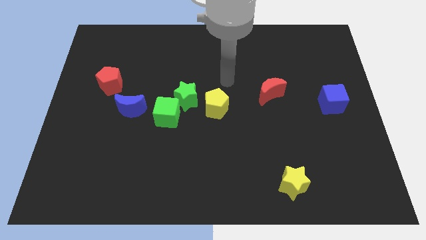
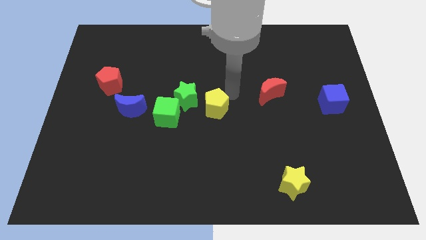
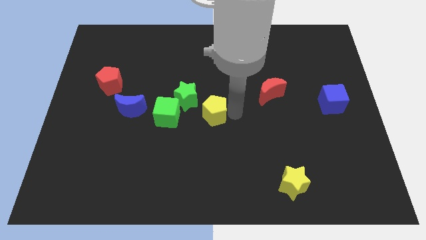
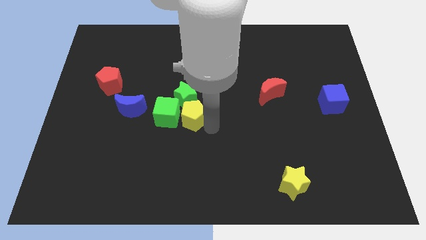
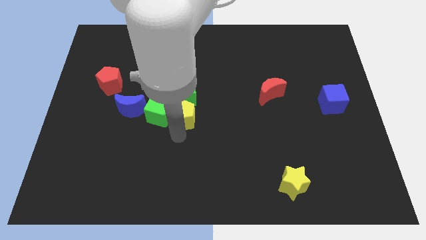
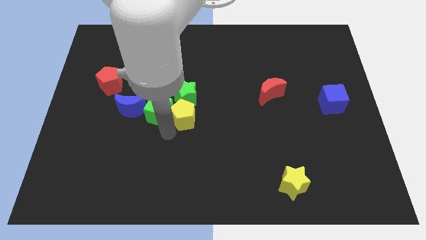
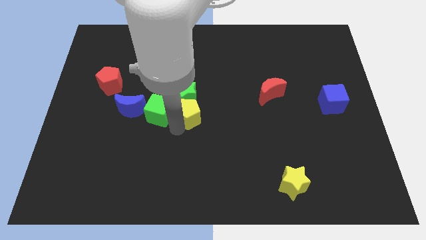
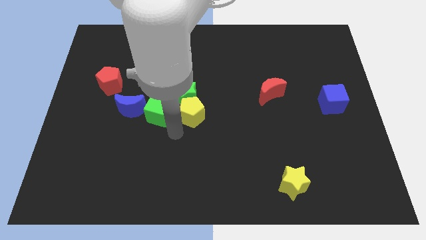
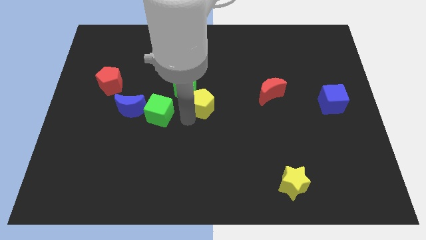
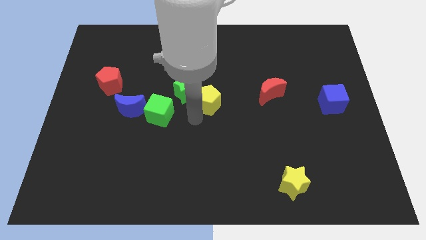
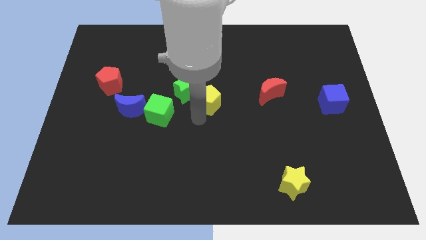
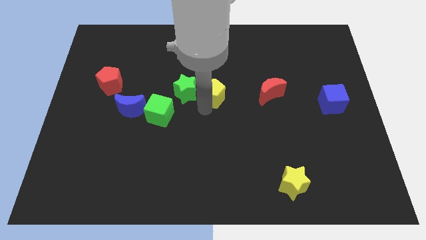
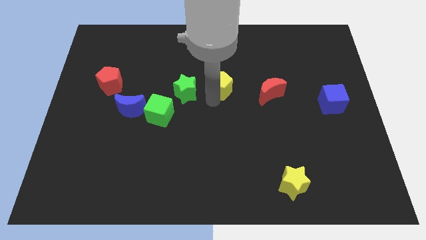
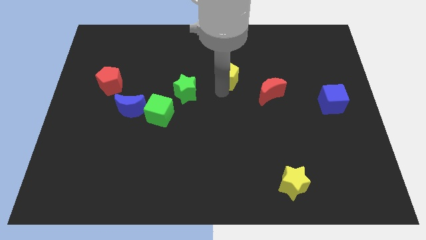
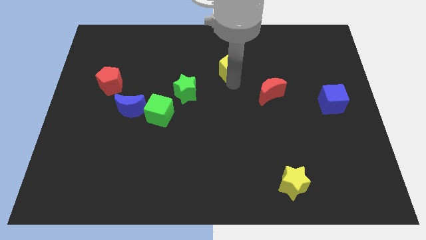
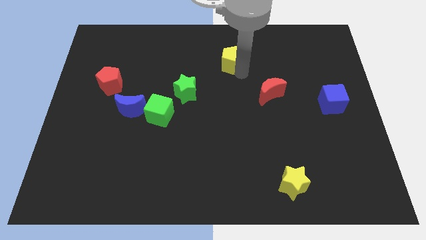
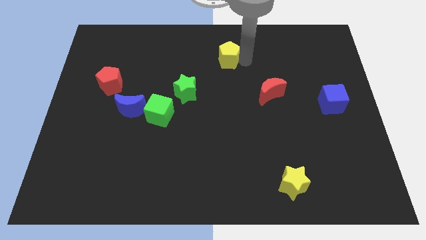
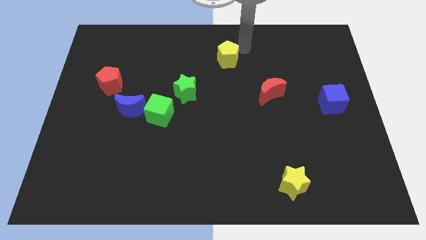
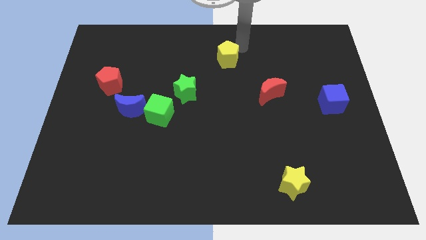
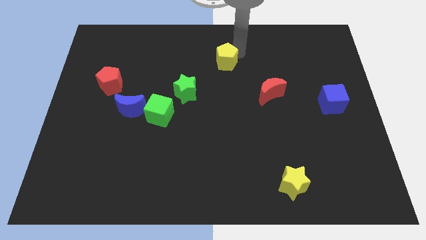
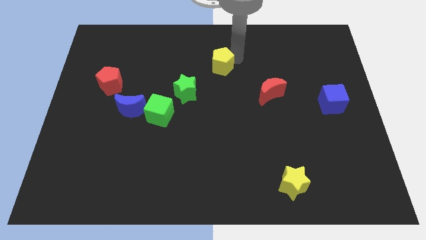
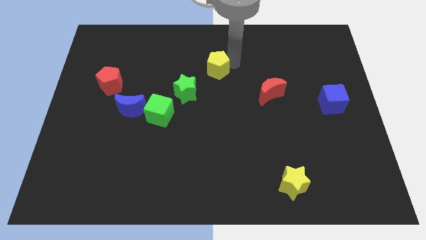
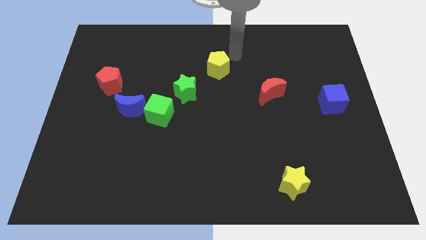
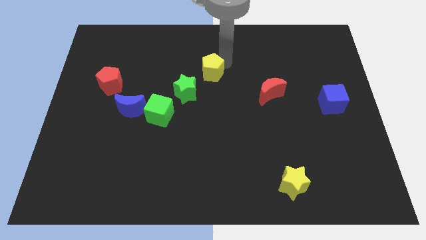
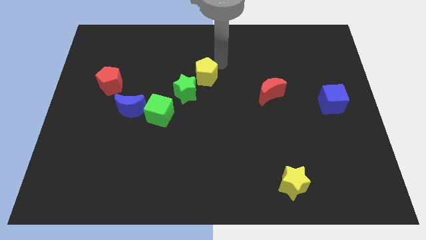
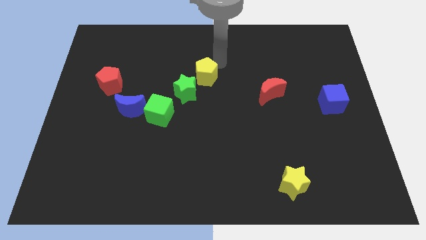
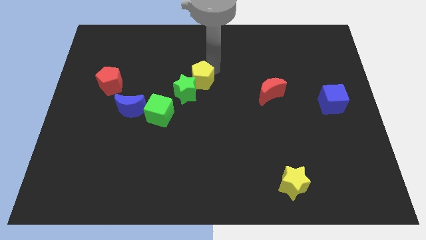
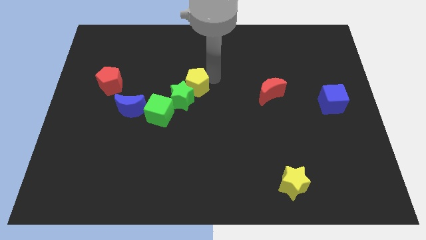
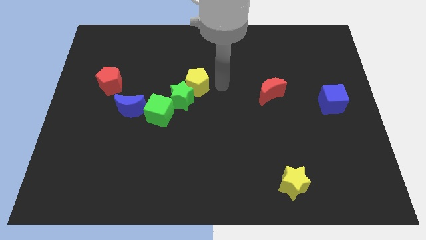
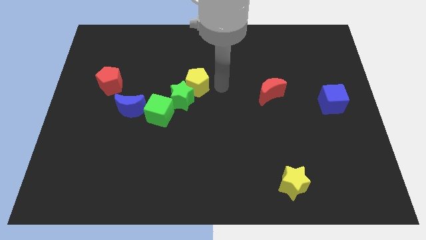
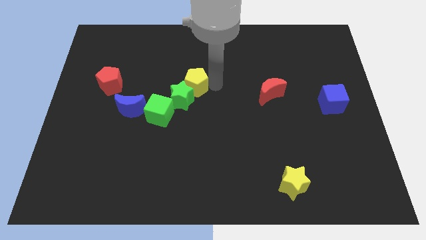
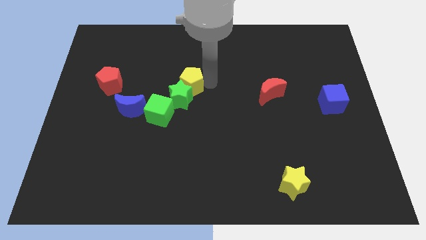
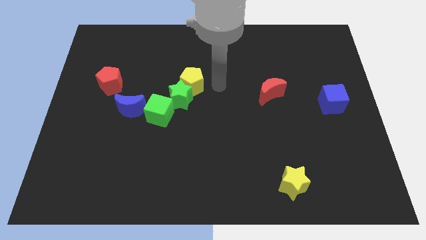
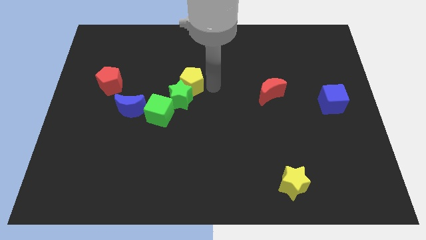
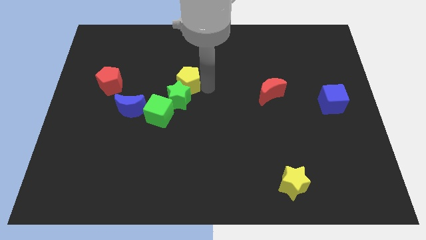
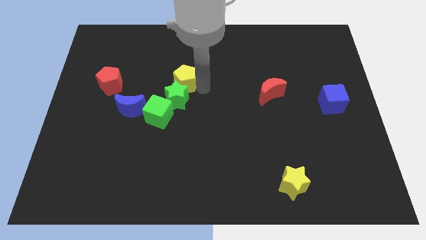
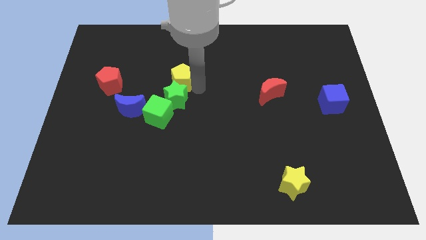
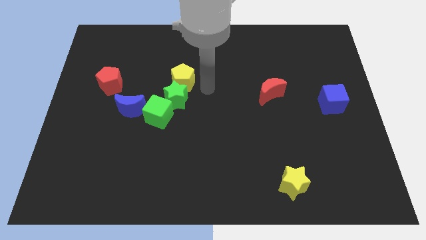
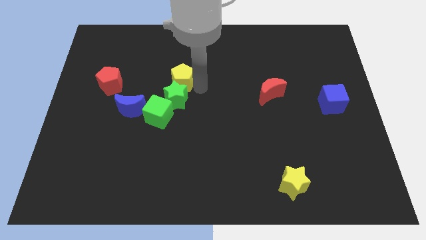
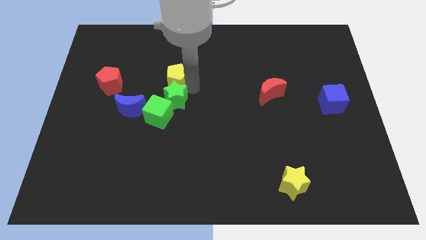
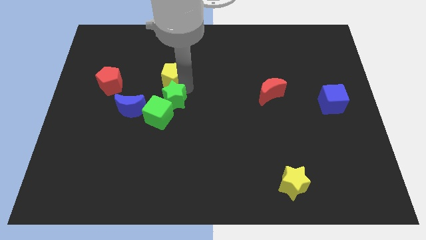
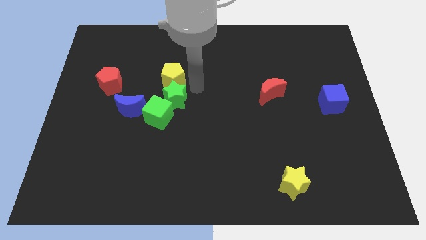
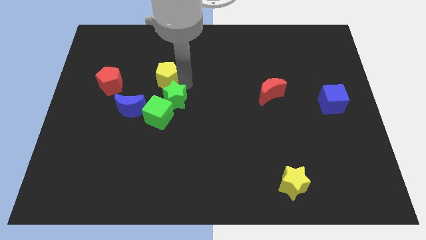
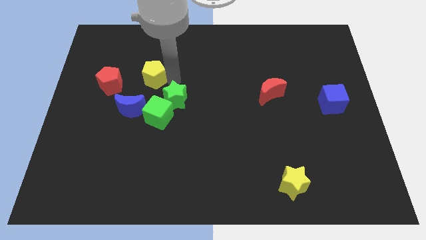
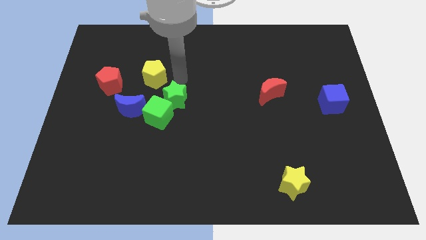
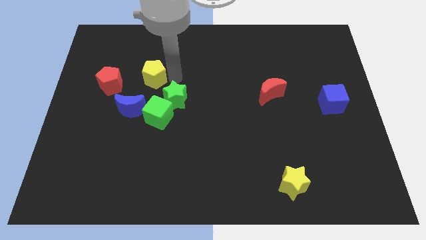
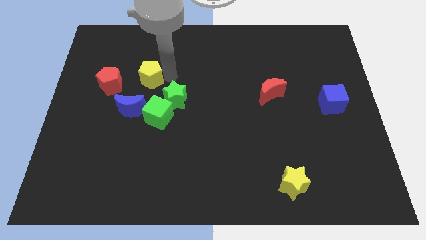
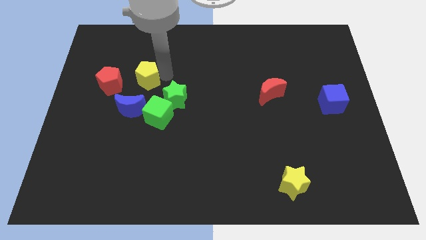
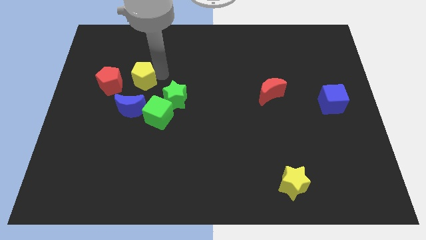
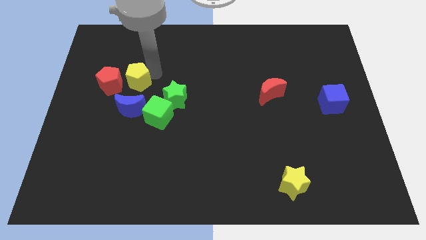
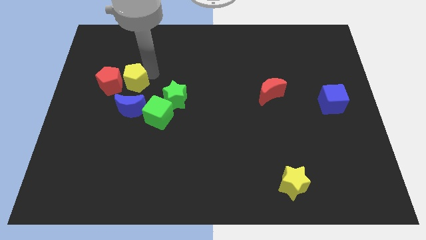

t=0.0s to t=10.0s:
put the yellow pentagon towards the red pentagon

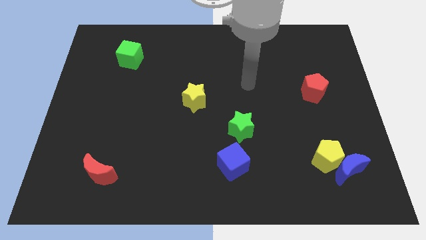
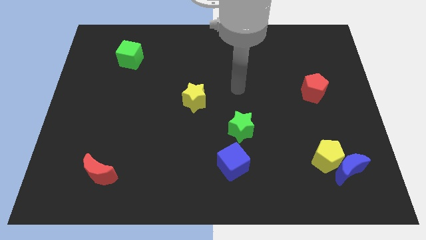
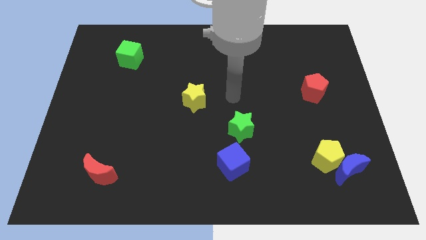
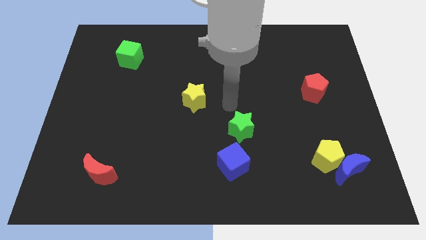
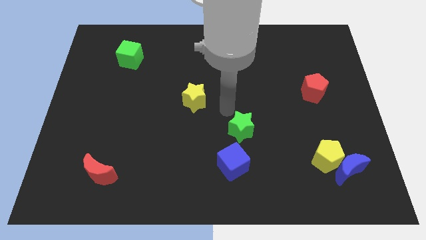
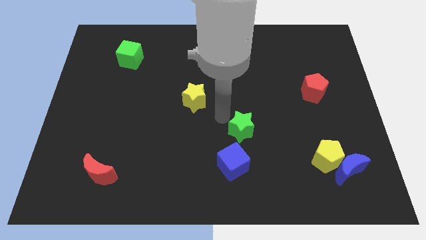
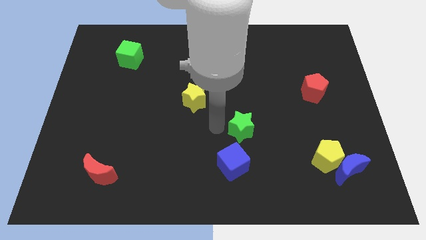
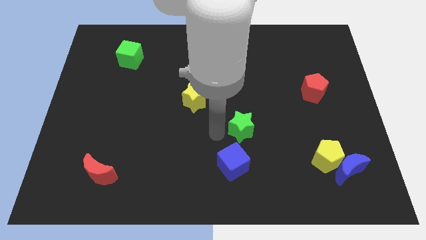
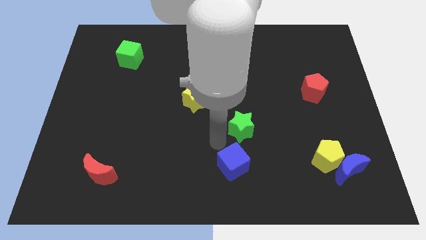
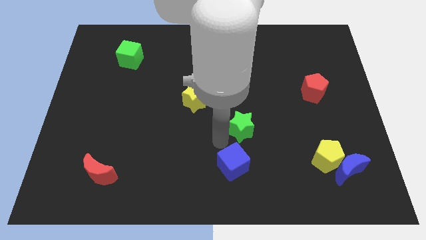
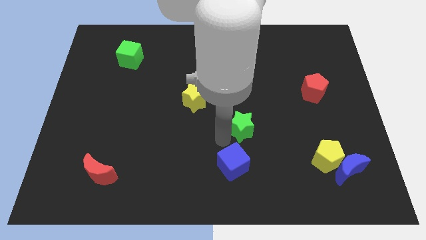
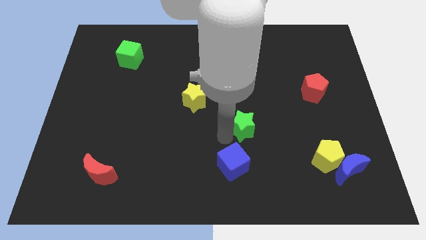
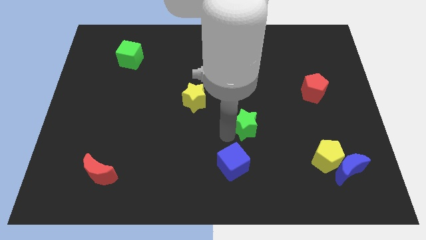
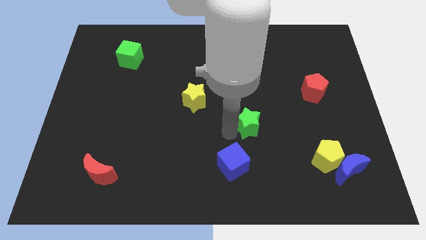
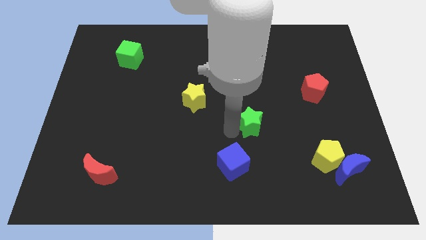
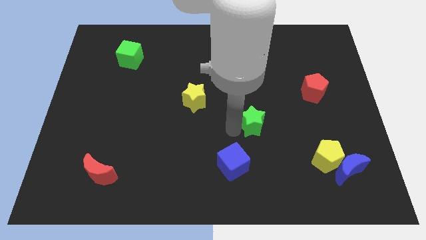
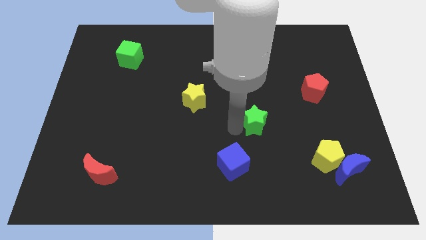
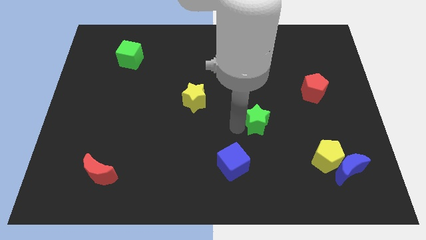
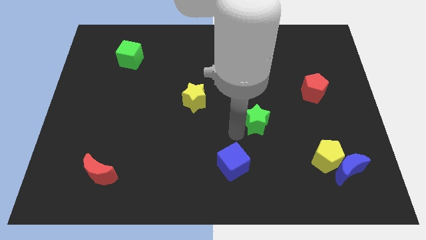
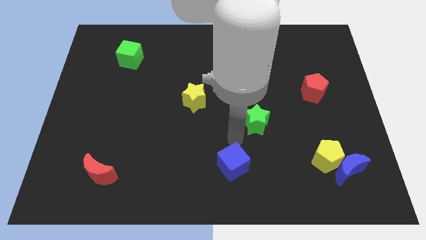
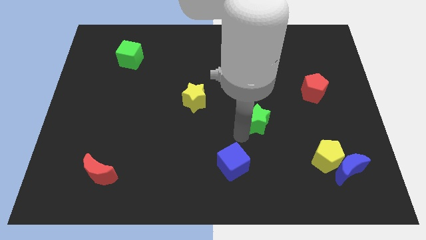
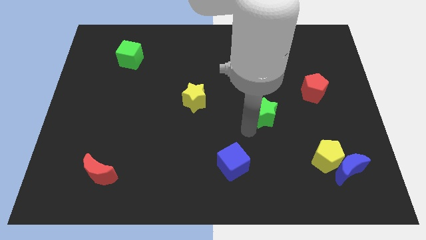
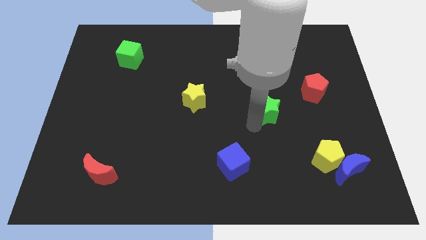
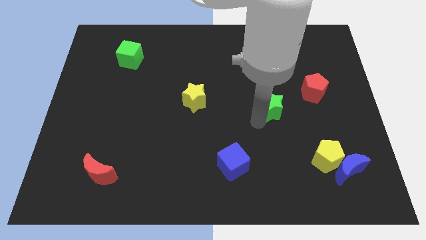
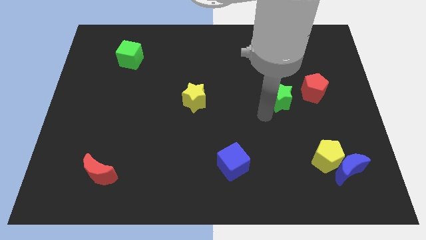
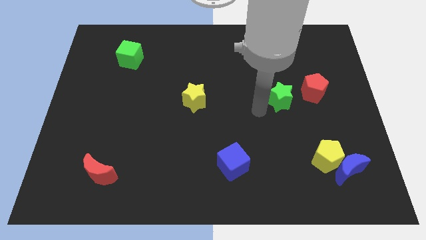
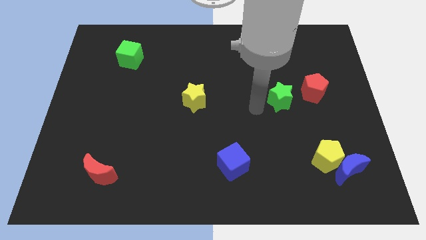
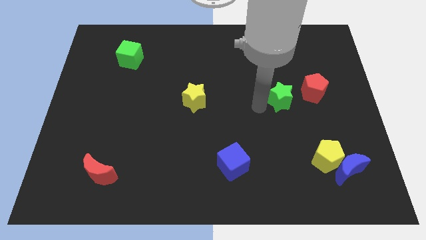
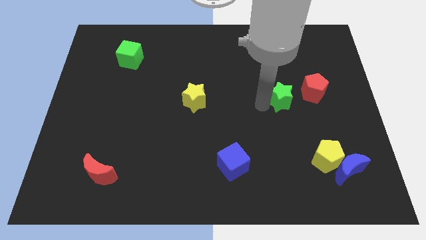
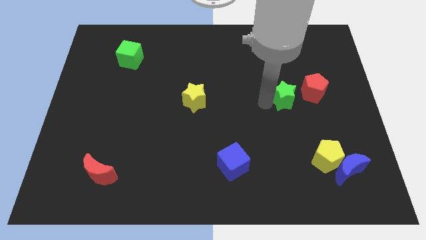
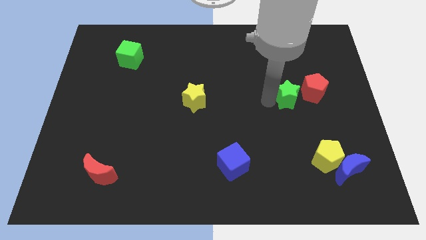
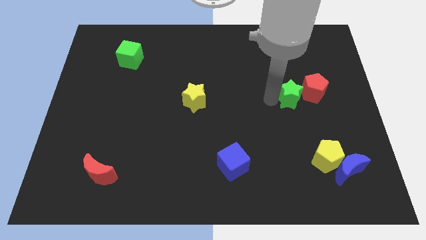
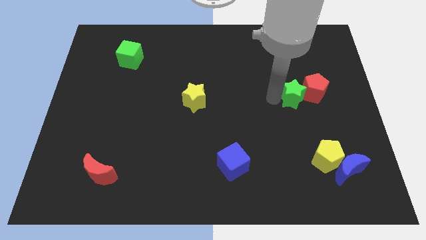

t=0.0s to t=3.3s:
put the green star towards the red pentagon
